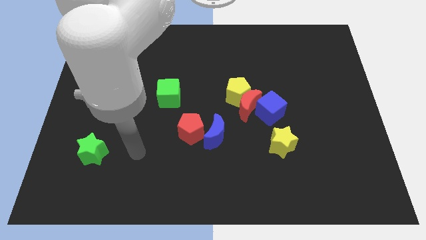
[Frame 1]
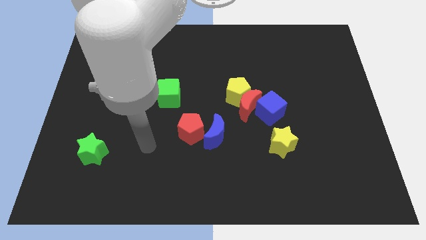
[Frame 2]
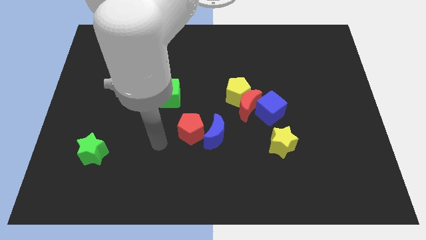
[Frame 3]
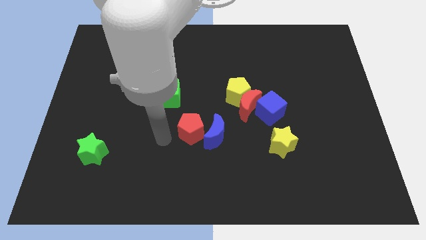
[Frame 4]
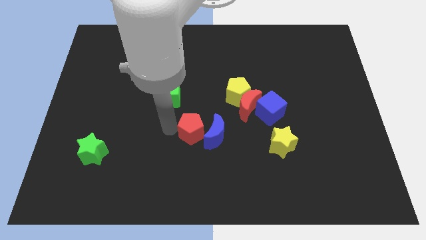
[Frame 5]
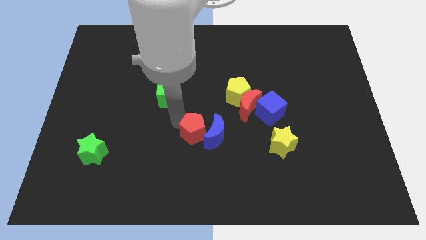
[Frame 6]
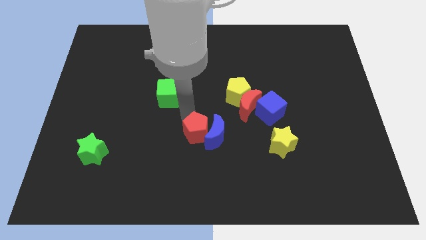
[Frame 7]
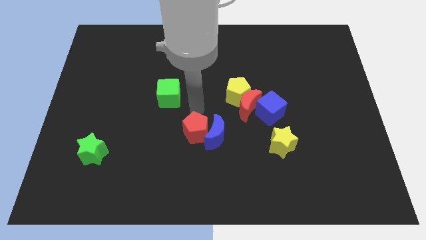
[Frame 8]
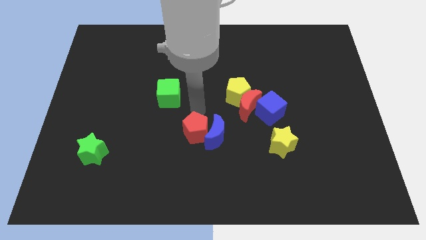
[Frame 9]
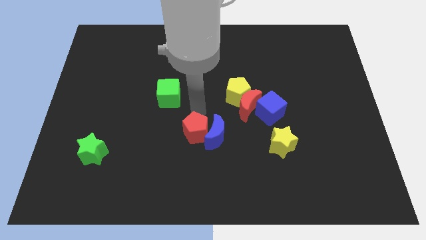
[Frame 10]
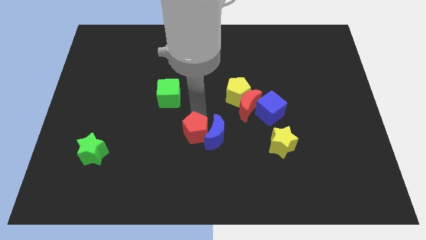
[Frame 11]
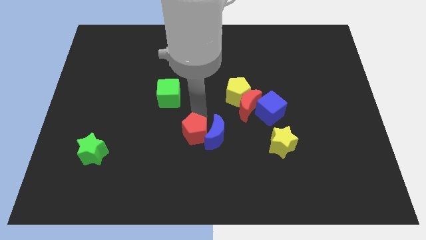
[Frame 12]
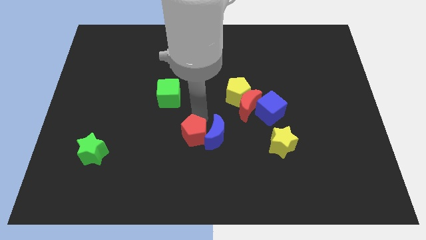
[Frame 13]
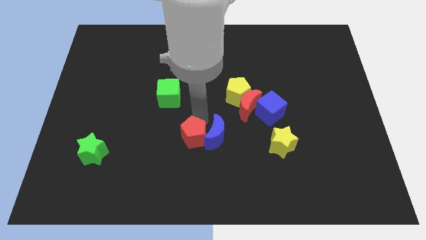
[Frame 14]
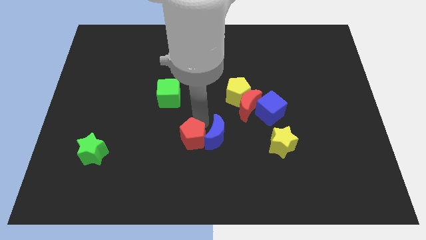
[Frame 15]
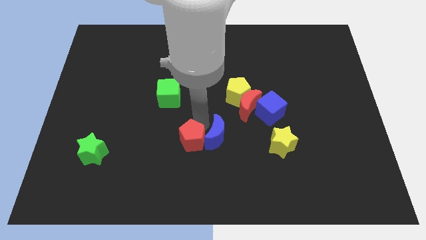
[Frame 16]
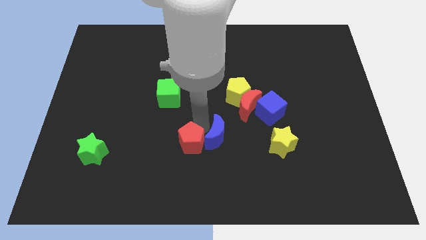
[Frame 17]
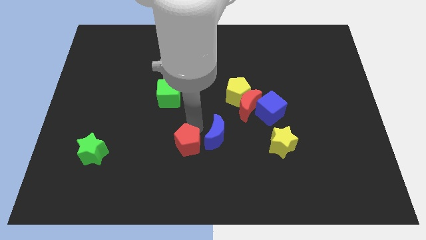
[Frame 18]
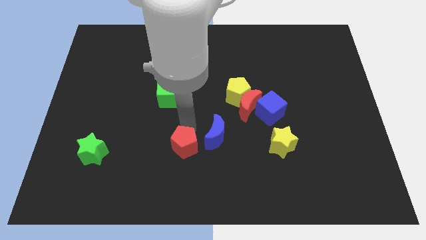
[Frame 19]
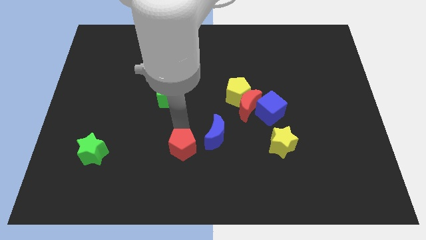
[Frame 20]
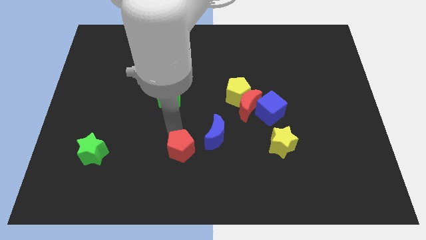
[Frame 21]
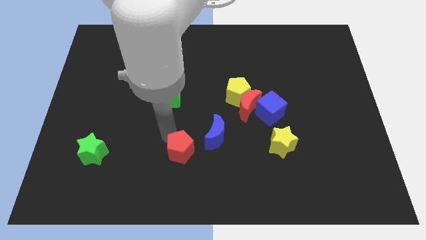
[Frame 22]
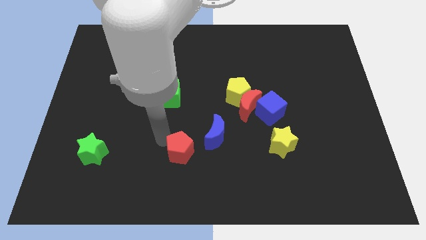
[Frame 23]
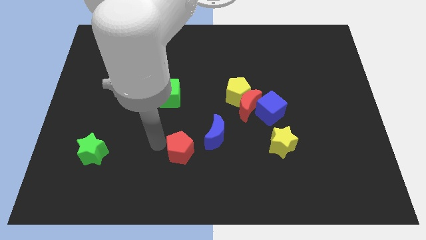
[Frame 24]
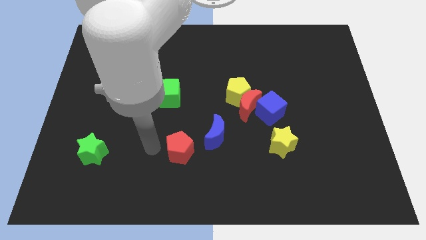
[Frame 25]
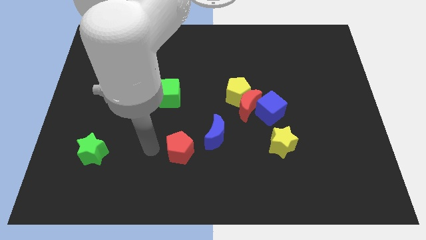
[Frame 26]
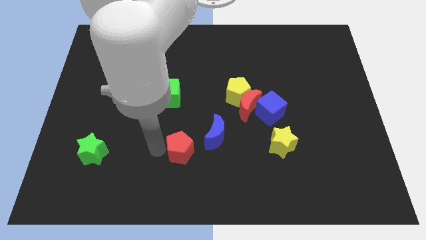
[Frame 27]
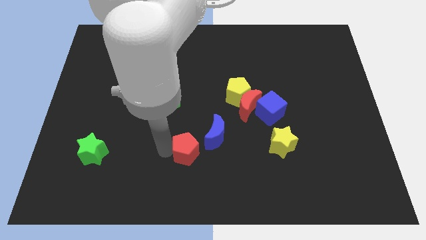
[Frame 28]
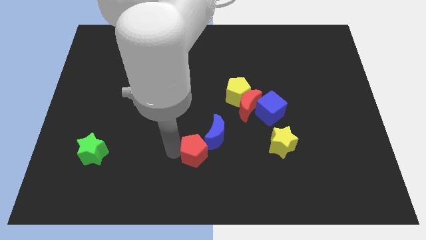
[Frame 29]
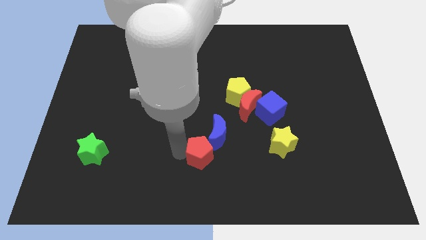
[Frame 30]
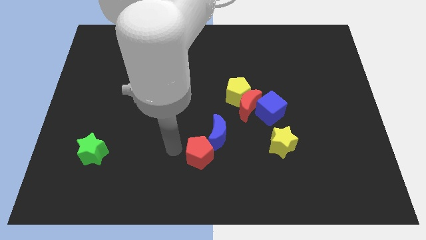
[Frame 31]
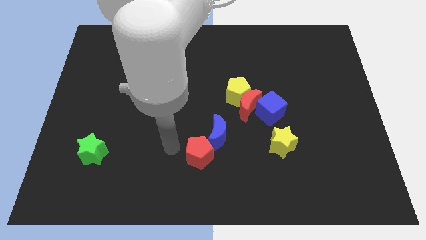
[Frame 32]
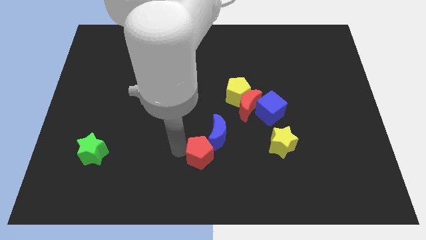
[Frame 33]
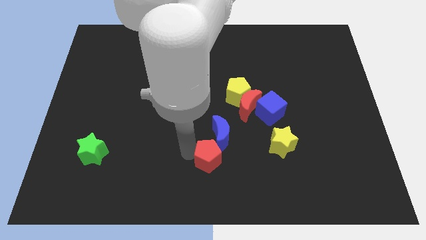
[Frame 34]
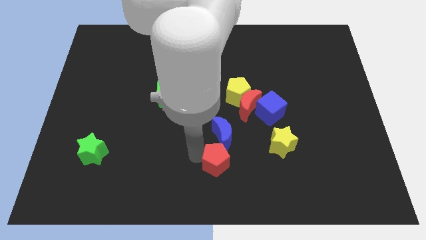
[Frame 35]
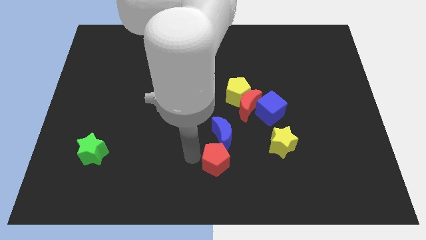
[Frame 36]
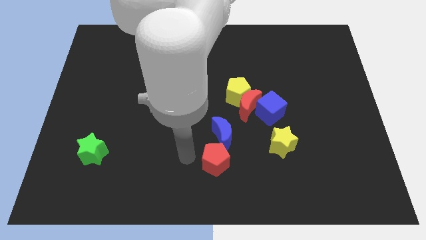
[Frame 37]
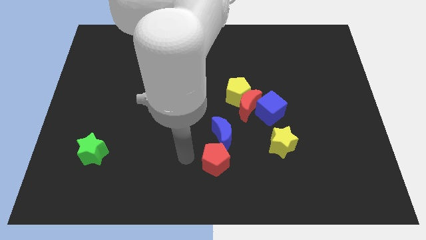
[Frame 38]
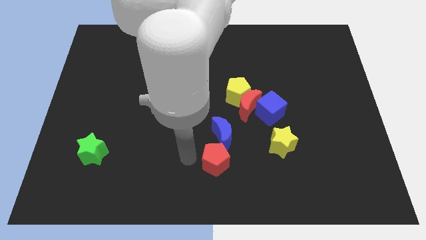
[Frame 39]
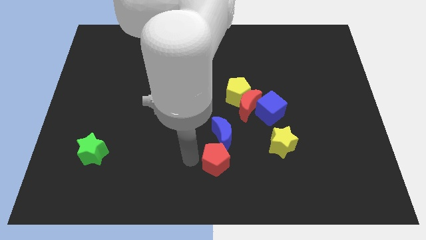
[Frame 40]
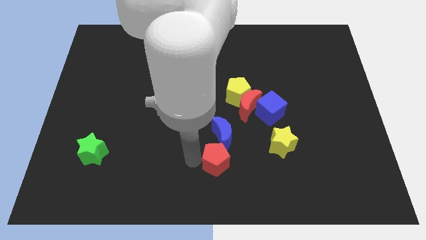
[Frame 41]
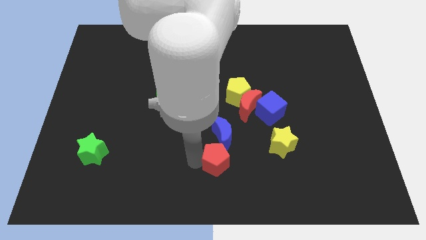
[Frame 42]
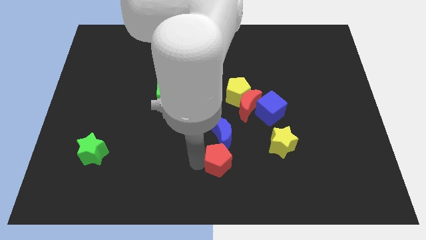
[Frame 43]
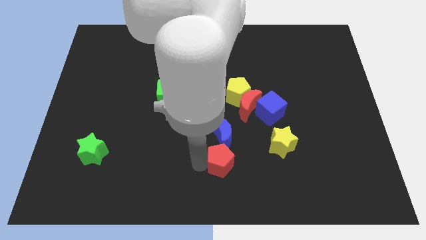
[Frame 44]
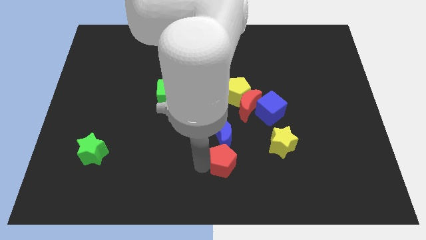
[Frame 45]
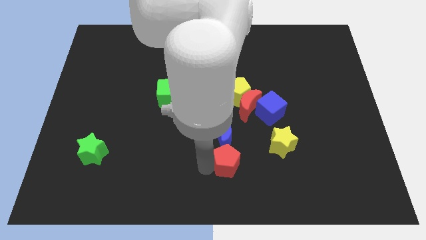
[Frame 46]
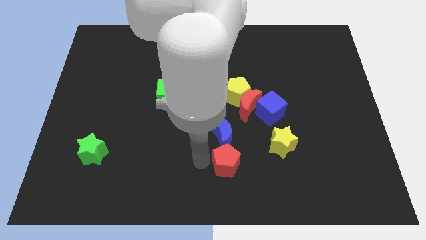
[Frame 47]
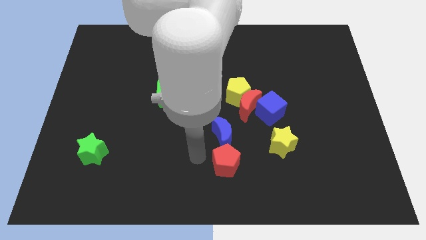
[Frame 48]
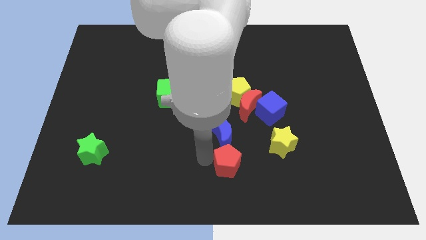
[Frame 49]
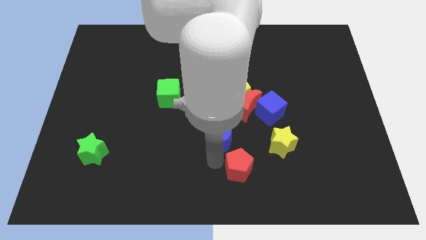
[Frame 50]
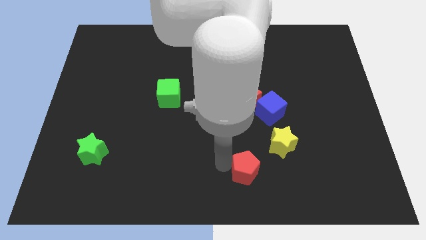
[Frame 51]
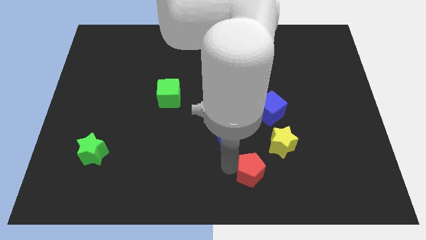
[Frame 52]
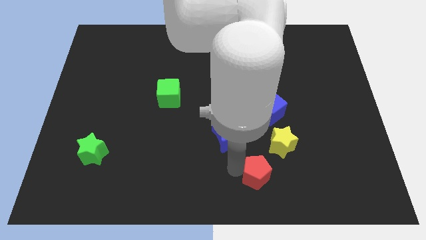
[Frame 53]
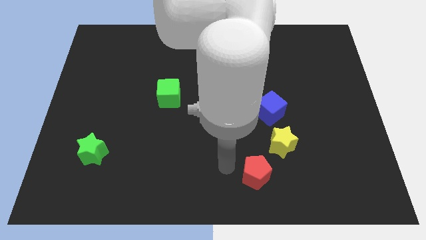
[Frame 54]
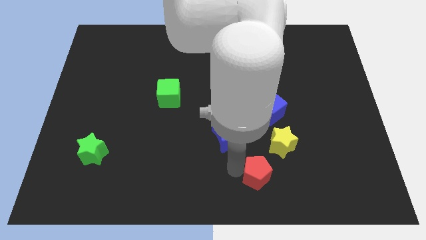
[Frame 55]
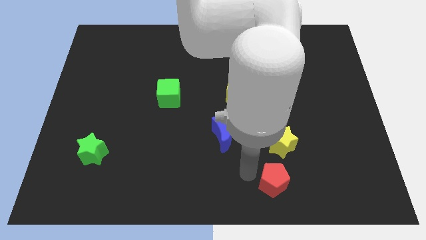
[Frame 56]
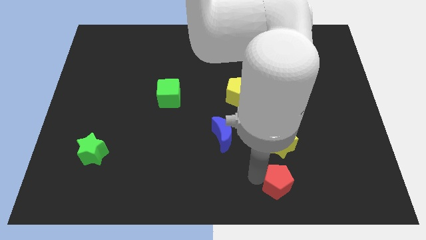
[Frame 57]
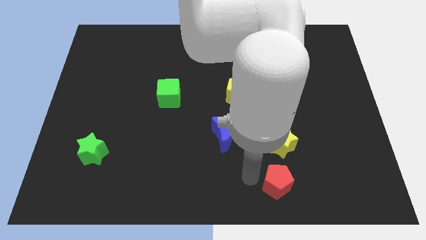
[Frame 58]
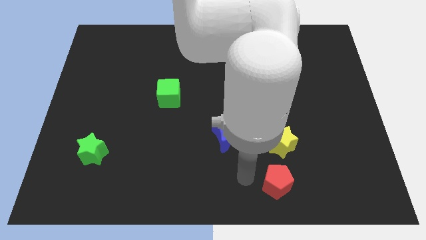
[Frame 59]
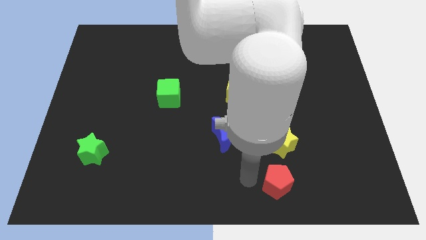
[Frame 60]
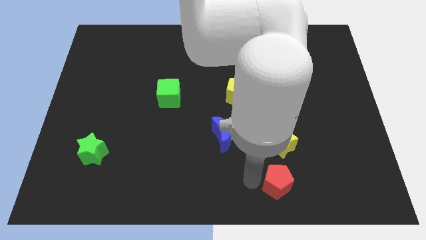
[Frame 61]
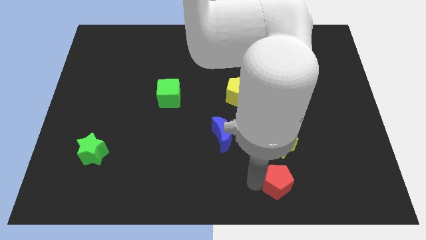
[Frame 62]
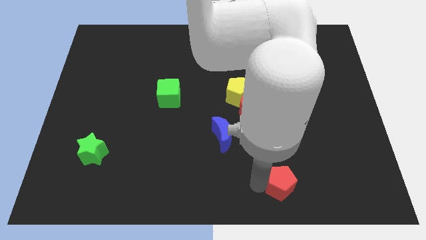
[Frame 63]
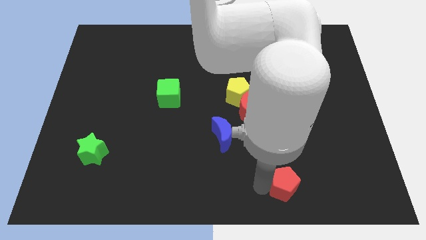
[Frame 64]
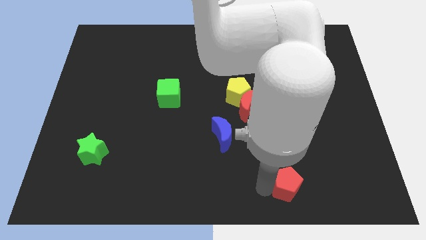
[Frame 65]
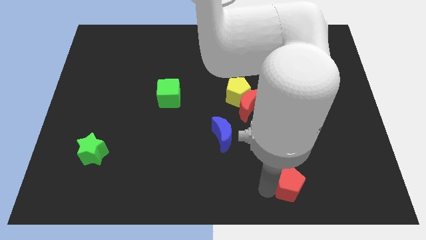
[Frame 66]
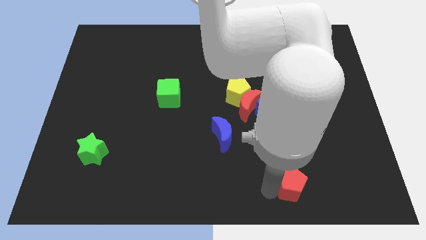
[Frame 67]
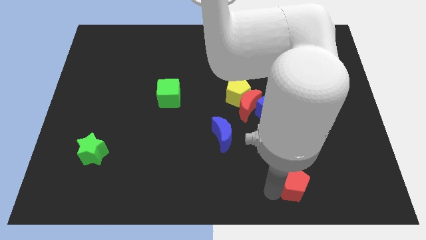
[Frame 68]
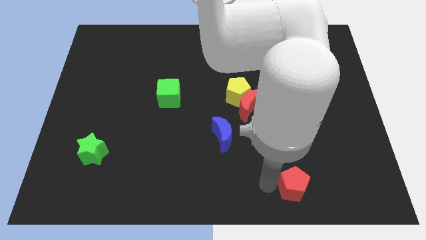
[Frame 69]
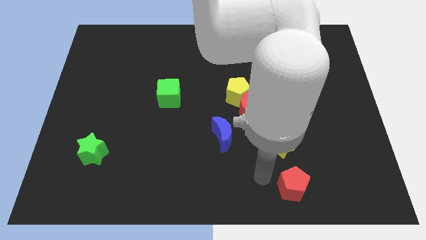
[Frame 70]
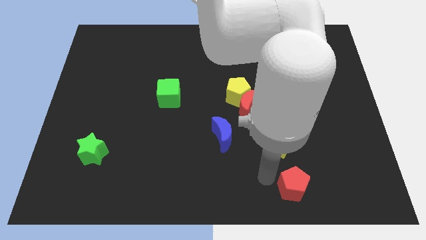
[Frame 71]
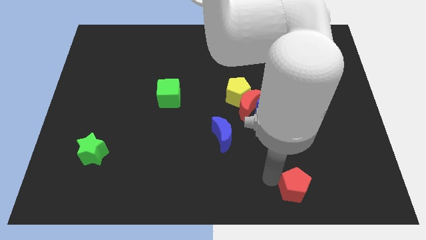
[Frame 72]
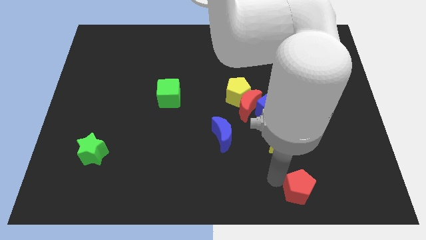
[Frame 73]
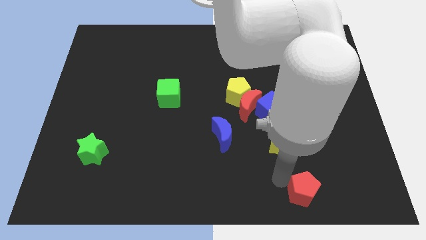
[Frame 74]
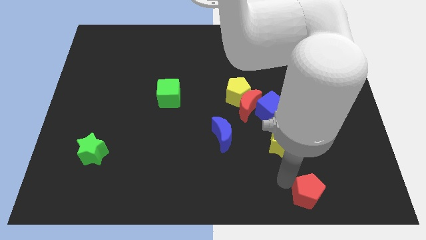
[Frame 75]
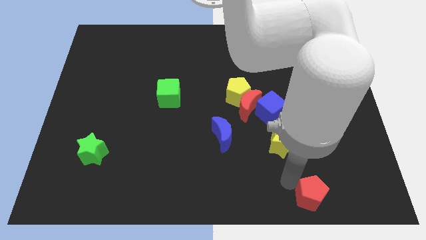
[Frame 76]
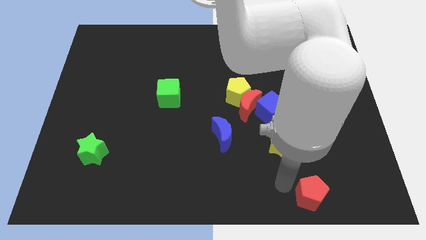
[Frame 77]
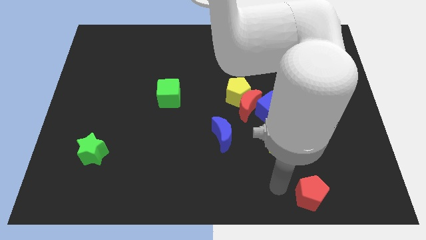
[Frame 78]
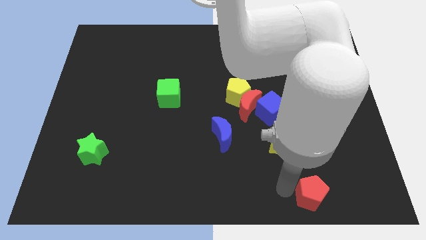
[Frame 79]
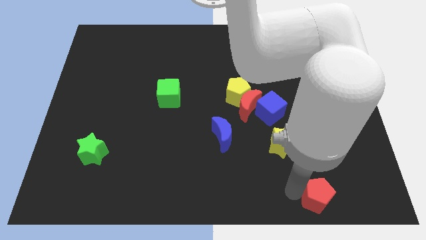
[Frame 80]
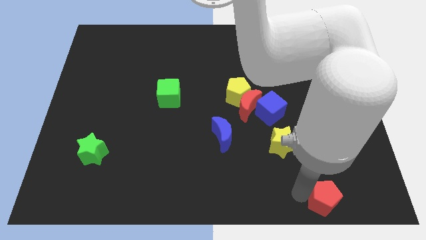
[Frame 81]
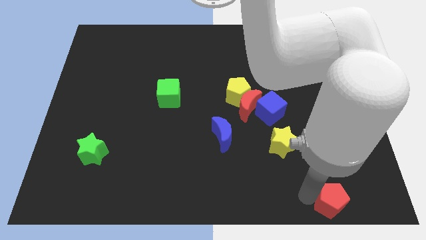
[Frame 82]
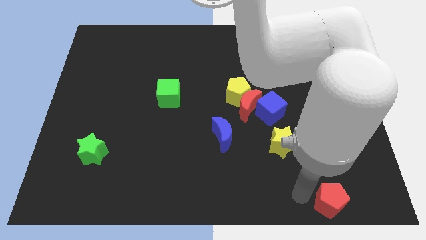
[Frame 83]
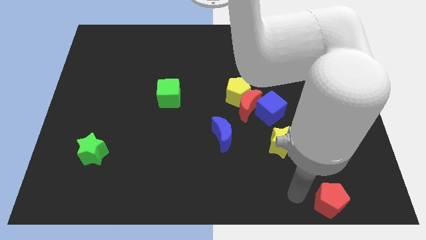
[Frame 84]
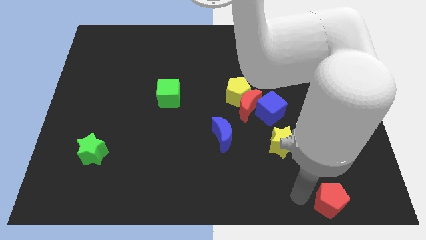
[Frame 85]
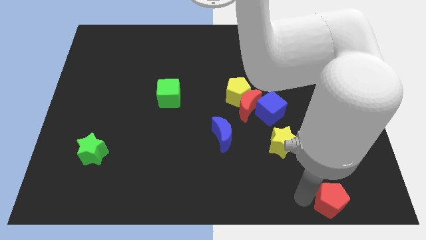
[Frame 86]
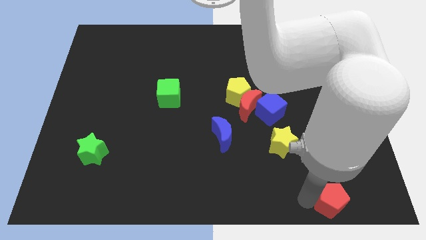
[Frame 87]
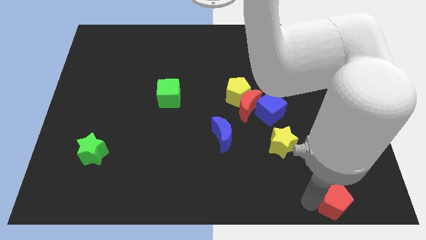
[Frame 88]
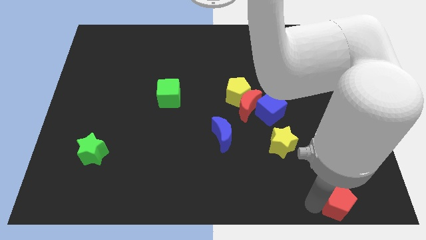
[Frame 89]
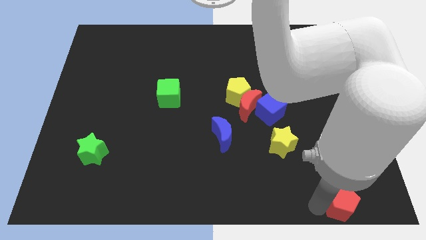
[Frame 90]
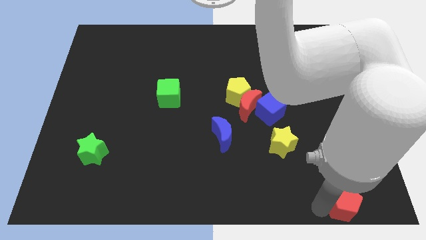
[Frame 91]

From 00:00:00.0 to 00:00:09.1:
move the red pentagon to the bottom right corner
